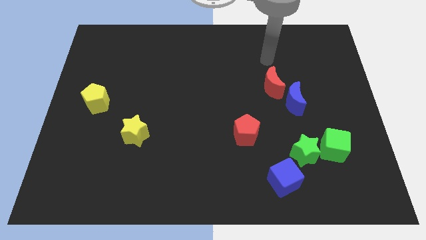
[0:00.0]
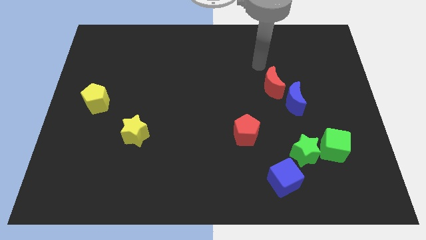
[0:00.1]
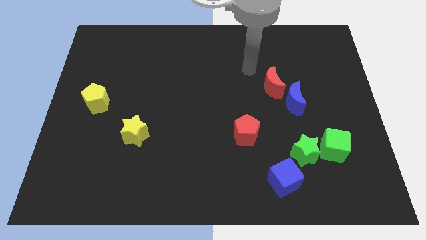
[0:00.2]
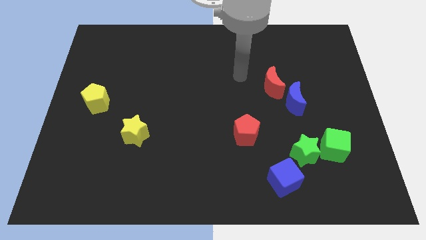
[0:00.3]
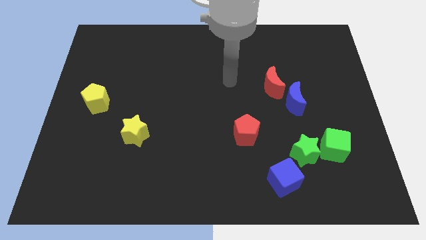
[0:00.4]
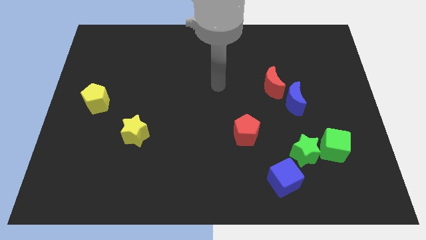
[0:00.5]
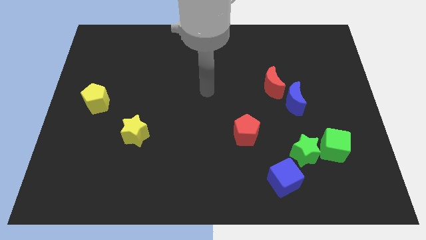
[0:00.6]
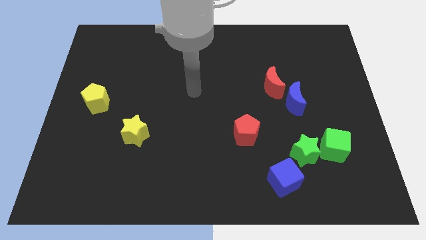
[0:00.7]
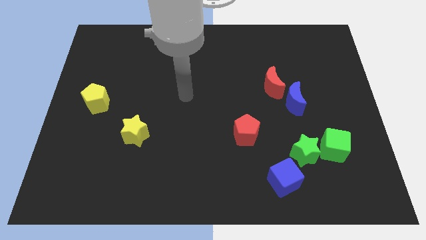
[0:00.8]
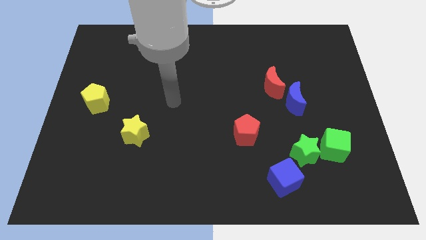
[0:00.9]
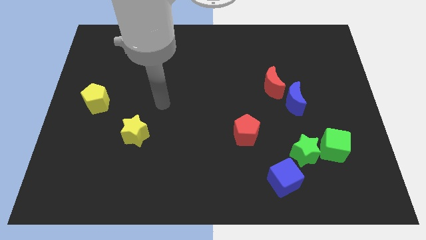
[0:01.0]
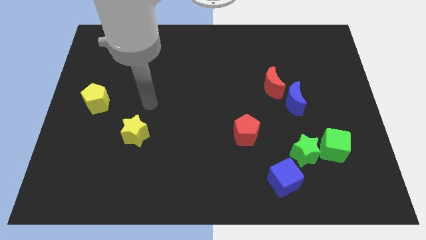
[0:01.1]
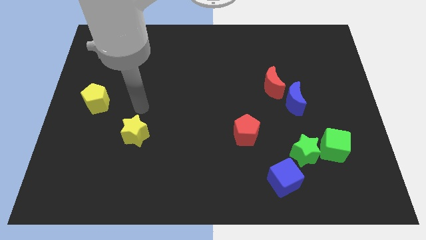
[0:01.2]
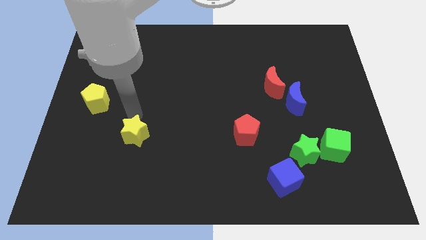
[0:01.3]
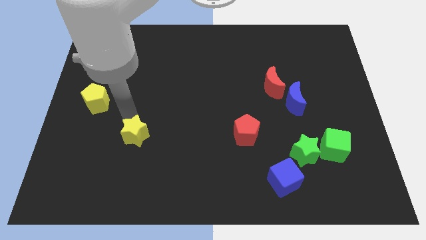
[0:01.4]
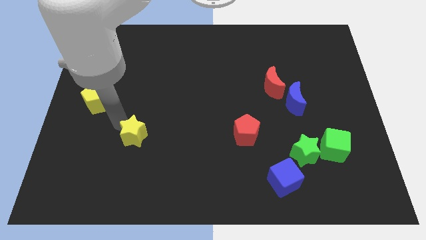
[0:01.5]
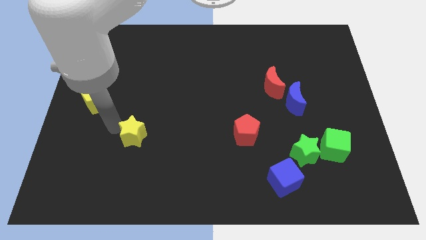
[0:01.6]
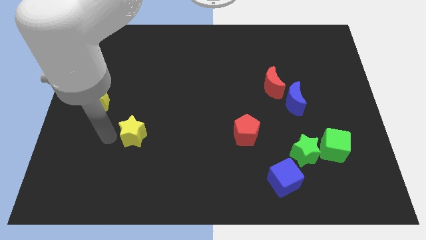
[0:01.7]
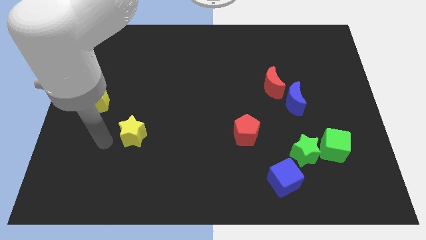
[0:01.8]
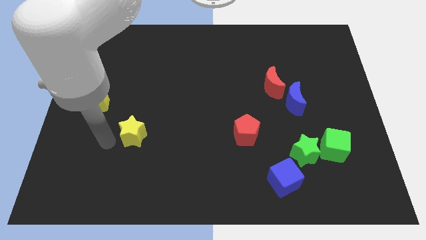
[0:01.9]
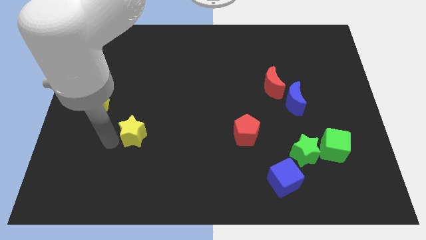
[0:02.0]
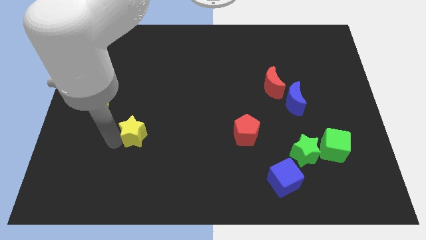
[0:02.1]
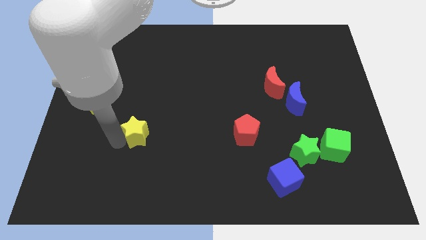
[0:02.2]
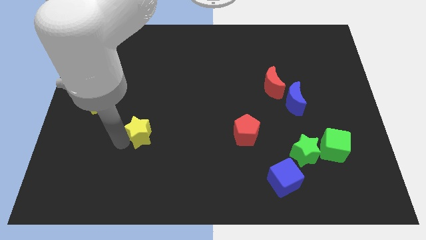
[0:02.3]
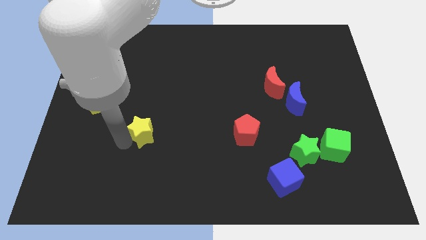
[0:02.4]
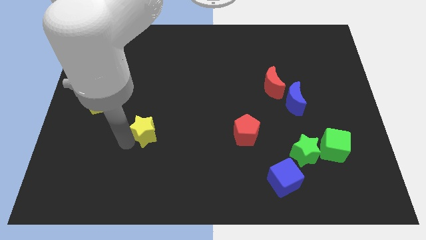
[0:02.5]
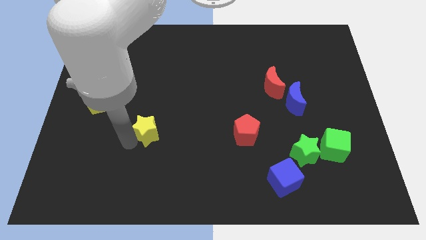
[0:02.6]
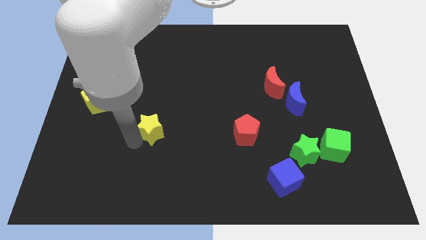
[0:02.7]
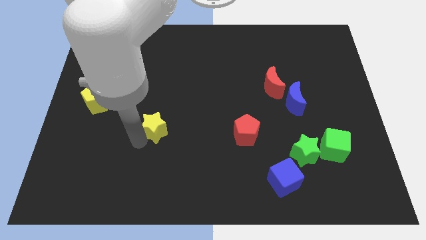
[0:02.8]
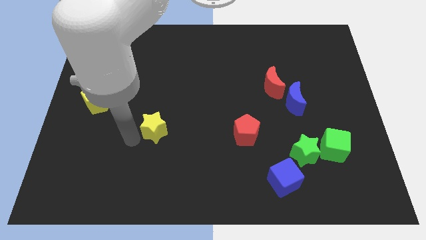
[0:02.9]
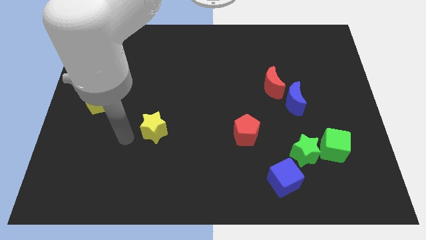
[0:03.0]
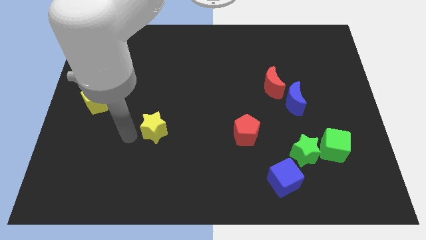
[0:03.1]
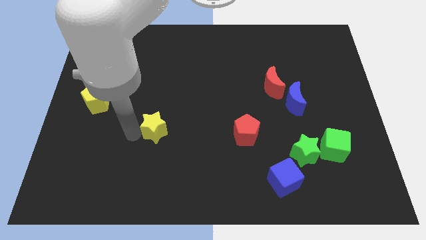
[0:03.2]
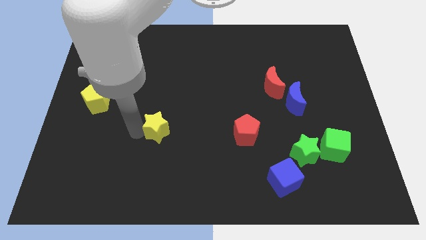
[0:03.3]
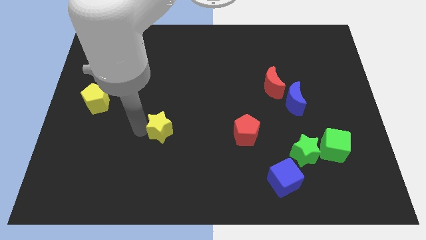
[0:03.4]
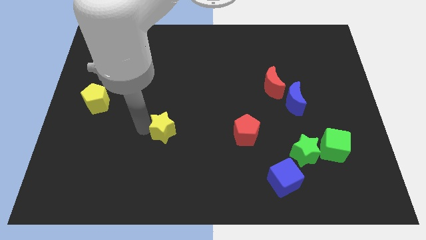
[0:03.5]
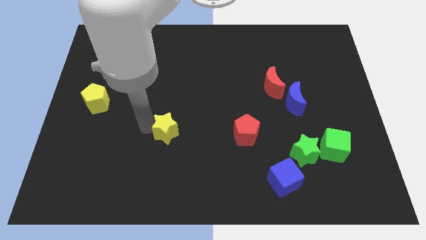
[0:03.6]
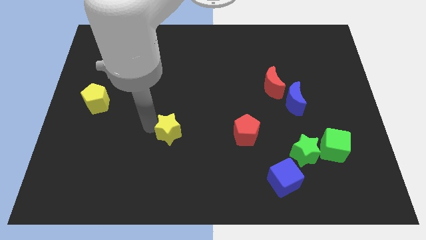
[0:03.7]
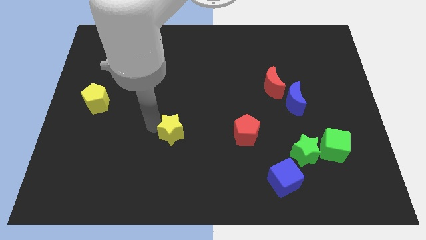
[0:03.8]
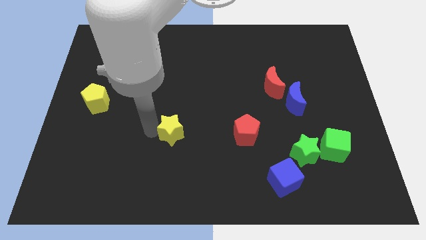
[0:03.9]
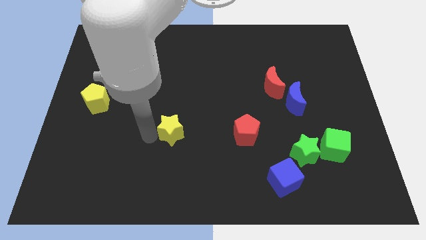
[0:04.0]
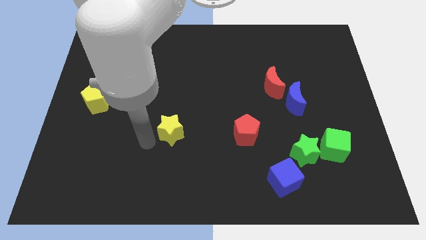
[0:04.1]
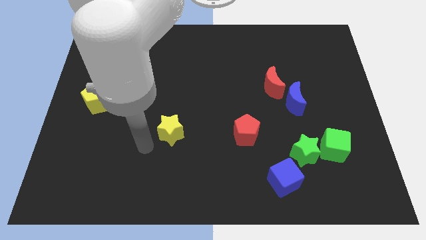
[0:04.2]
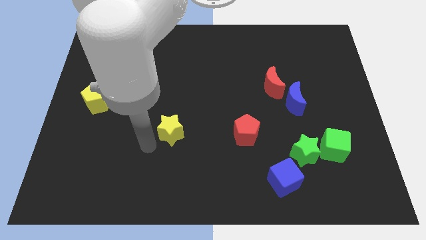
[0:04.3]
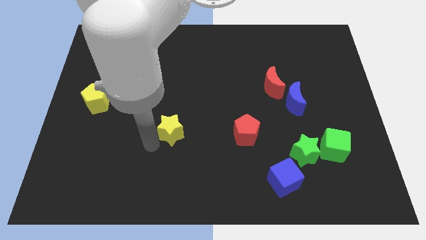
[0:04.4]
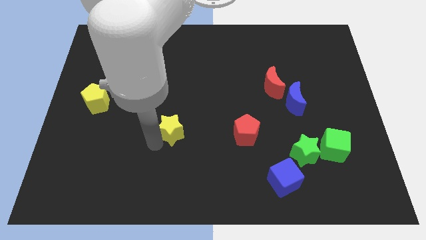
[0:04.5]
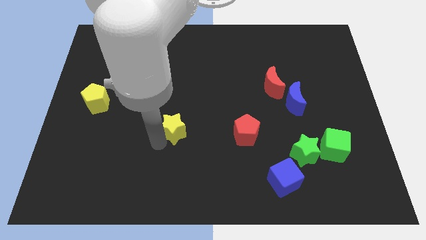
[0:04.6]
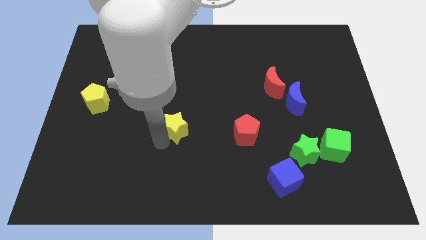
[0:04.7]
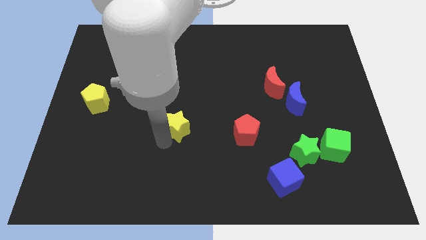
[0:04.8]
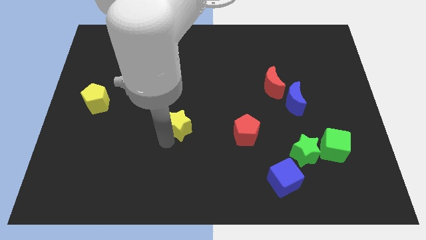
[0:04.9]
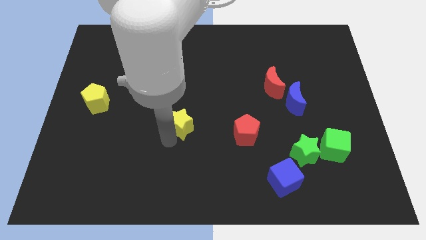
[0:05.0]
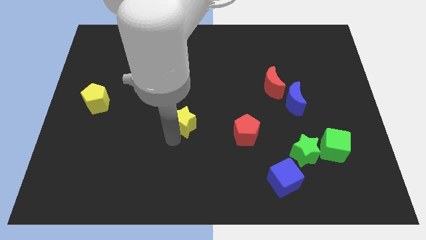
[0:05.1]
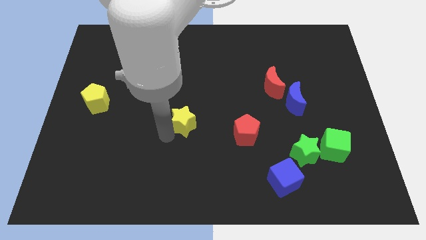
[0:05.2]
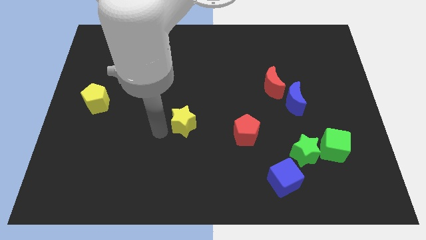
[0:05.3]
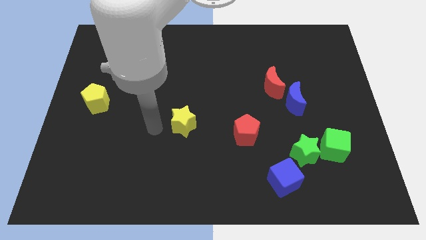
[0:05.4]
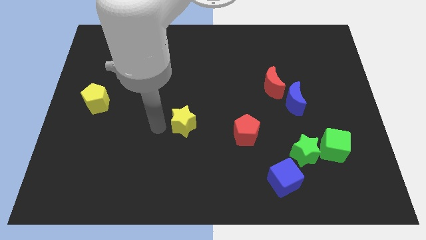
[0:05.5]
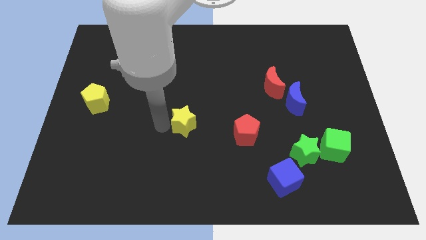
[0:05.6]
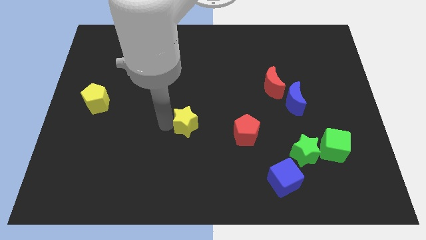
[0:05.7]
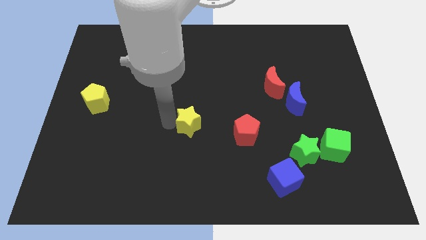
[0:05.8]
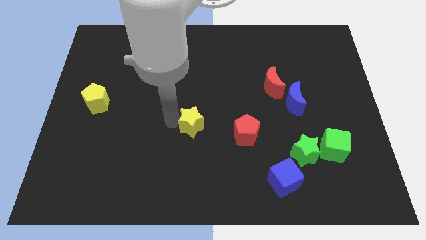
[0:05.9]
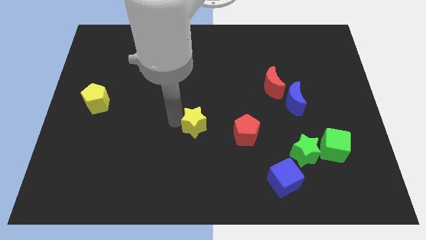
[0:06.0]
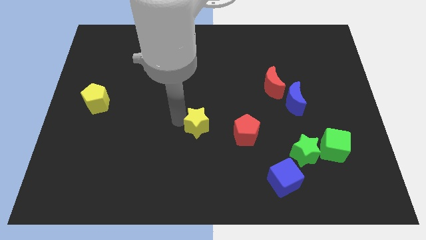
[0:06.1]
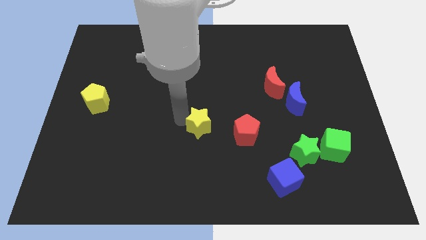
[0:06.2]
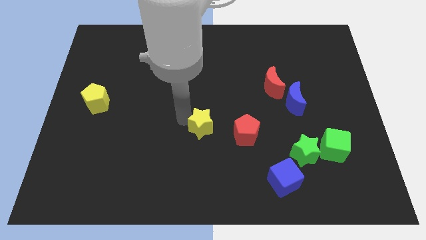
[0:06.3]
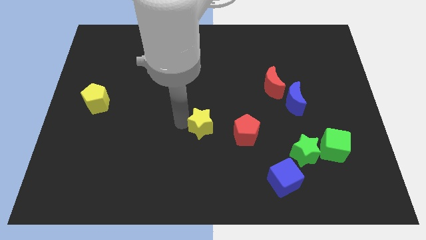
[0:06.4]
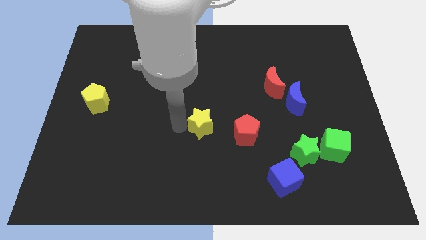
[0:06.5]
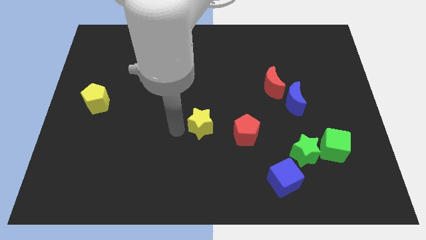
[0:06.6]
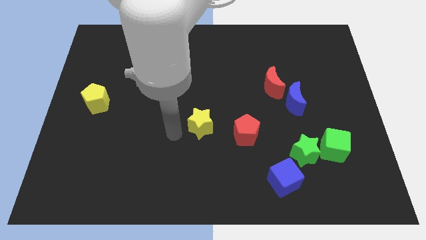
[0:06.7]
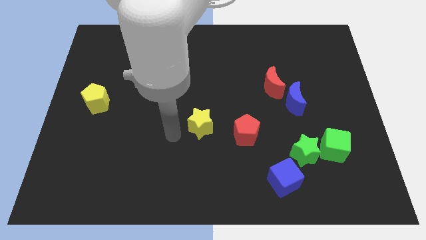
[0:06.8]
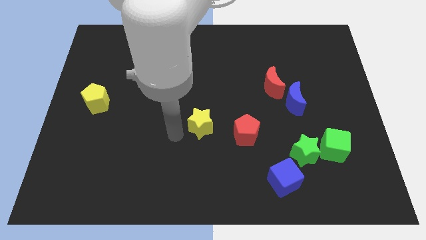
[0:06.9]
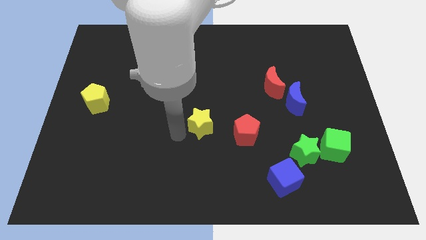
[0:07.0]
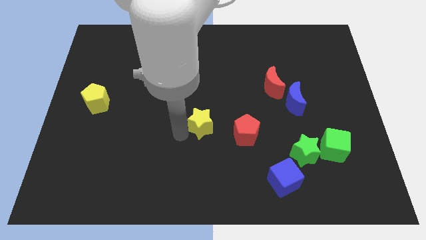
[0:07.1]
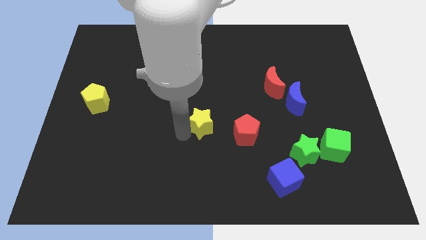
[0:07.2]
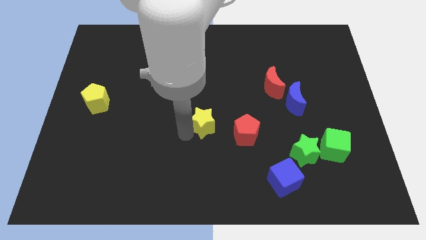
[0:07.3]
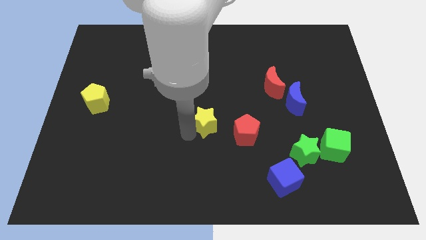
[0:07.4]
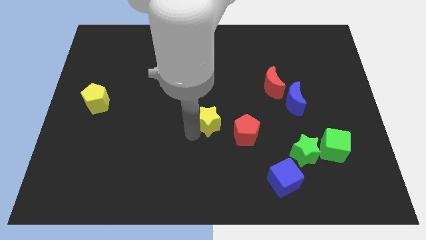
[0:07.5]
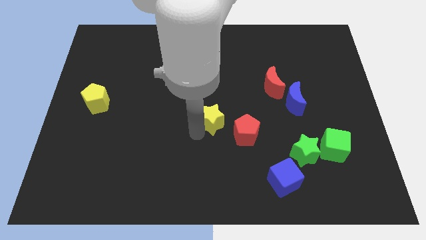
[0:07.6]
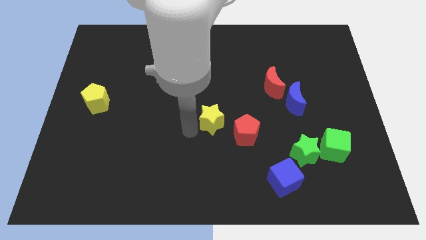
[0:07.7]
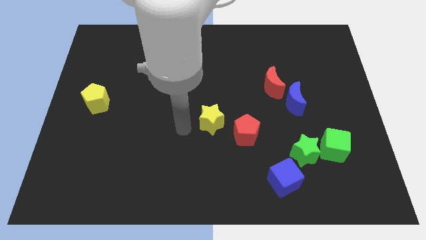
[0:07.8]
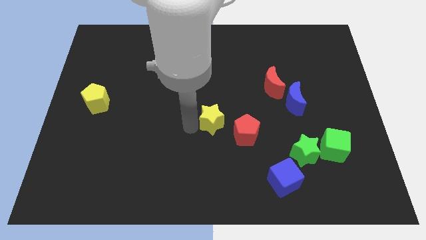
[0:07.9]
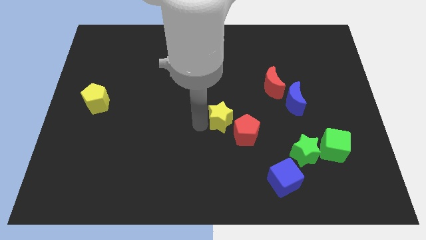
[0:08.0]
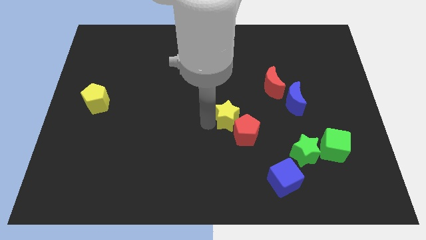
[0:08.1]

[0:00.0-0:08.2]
push the yellow star to the right
